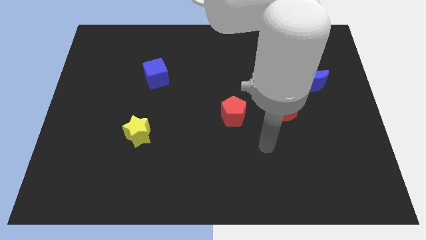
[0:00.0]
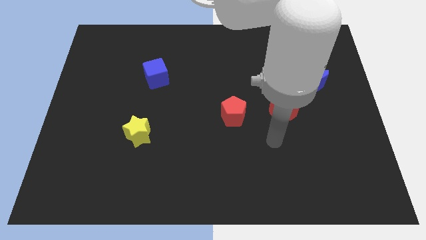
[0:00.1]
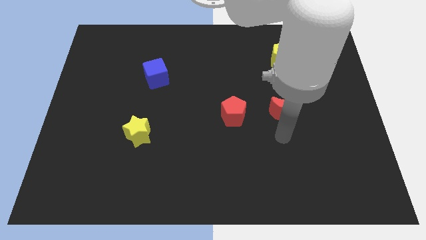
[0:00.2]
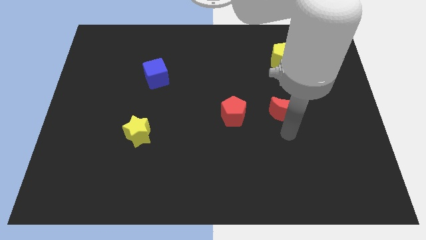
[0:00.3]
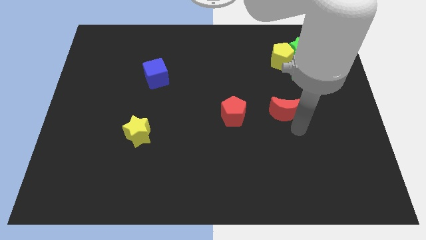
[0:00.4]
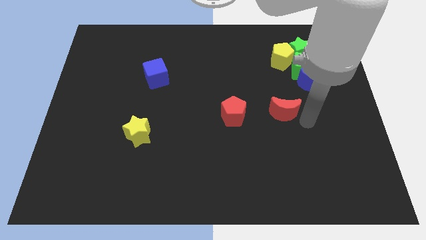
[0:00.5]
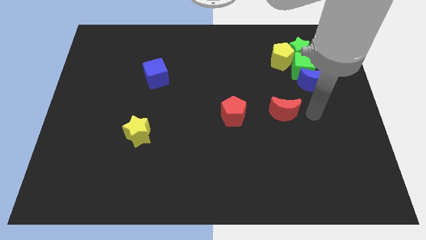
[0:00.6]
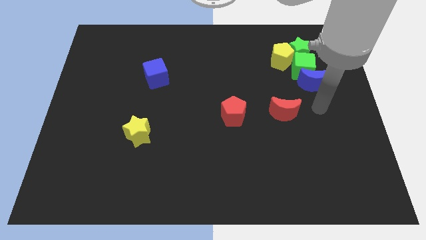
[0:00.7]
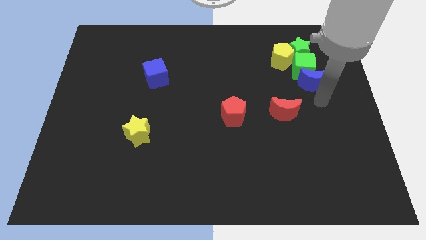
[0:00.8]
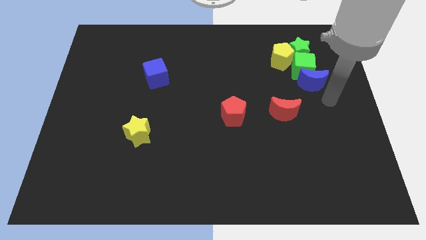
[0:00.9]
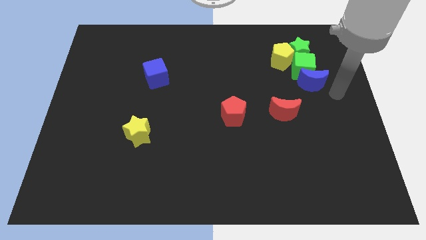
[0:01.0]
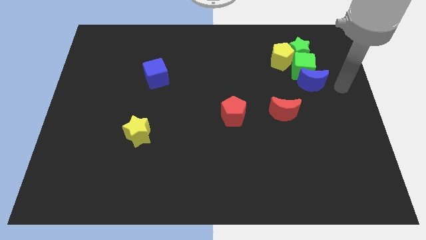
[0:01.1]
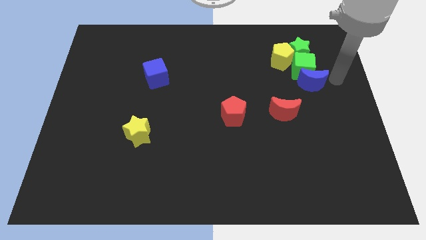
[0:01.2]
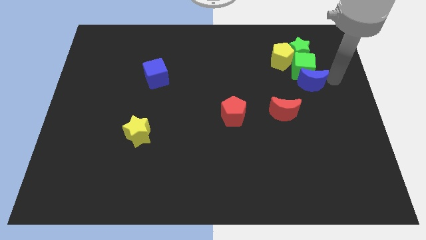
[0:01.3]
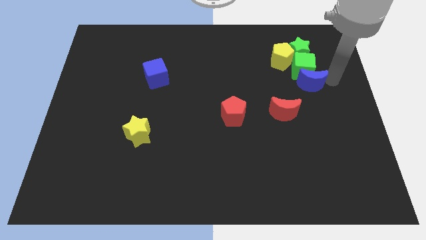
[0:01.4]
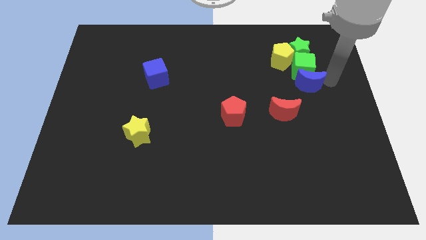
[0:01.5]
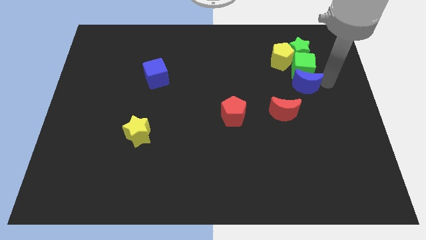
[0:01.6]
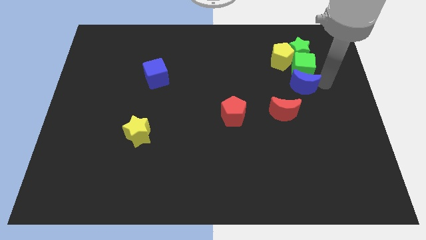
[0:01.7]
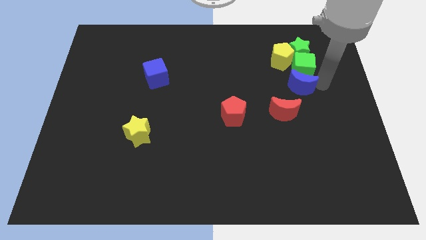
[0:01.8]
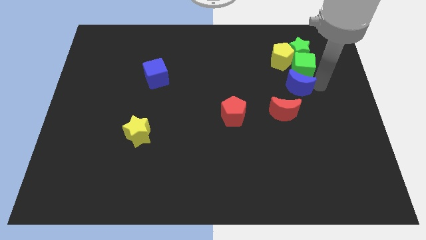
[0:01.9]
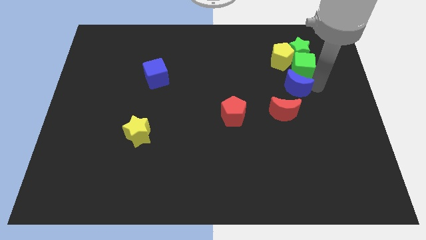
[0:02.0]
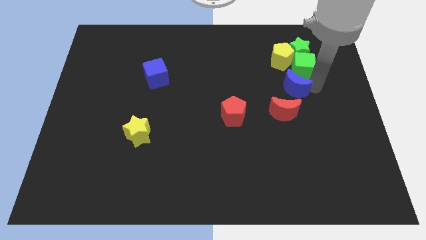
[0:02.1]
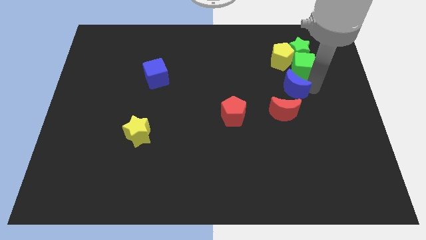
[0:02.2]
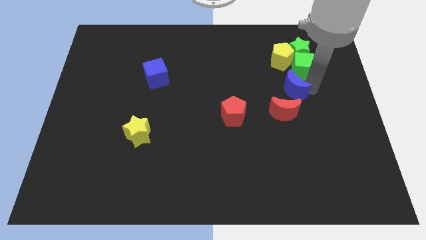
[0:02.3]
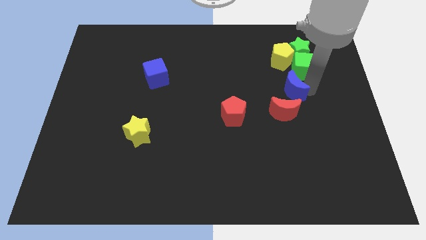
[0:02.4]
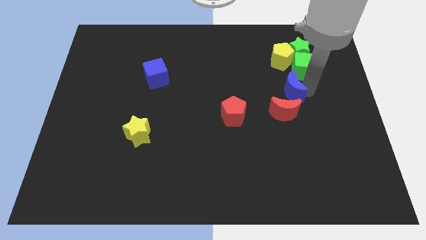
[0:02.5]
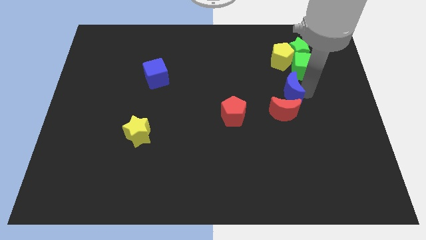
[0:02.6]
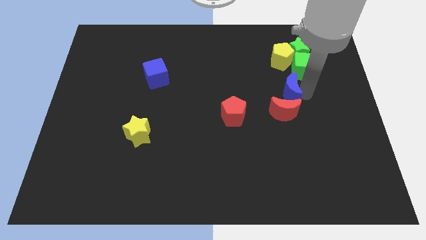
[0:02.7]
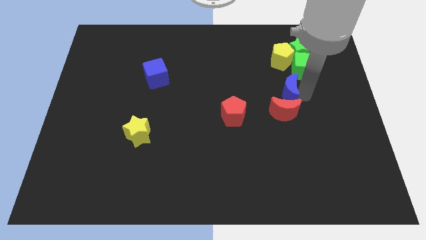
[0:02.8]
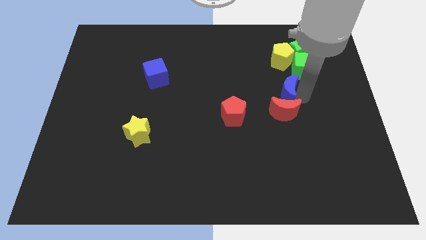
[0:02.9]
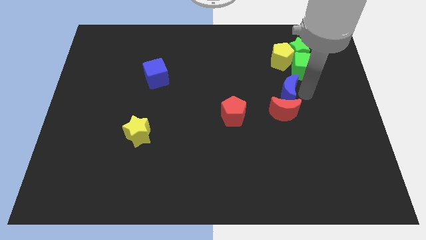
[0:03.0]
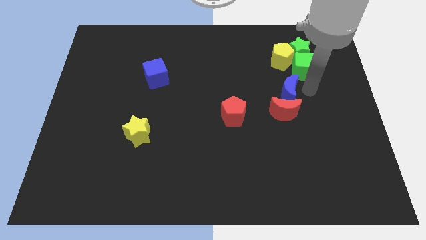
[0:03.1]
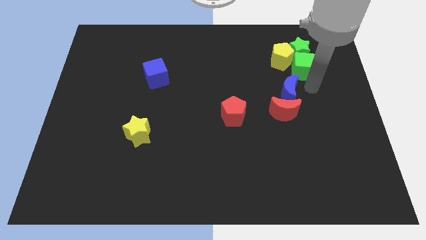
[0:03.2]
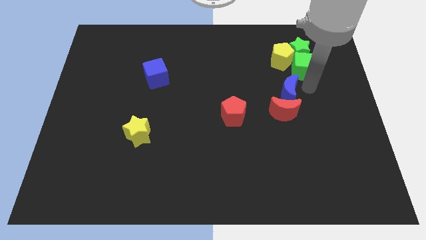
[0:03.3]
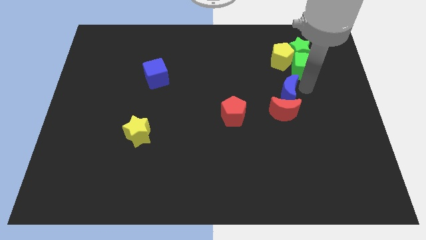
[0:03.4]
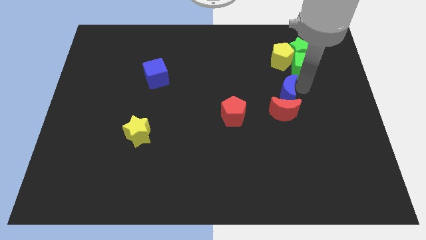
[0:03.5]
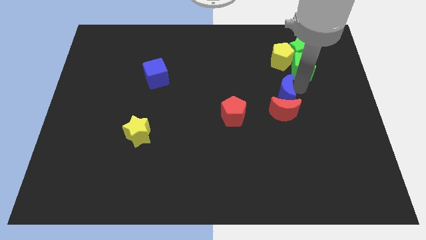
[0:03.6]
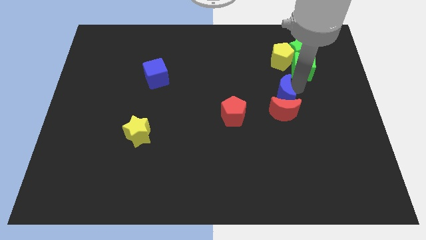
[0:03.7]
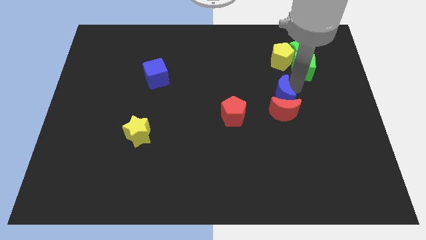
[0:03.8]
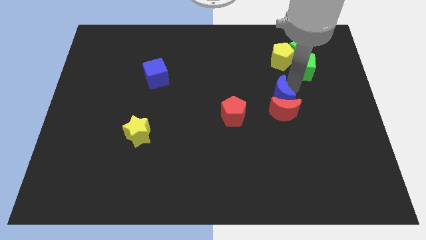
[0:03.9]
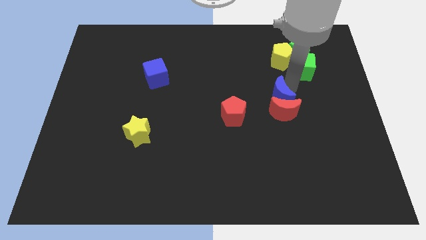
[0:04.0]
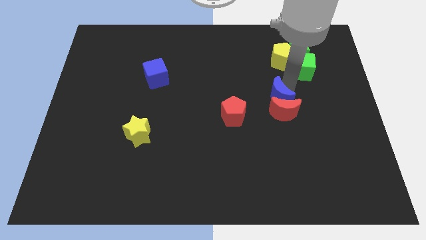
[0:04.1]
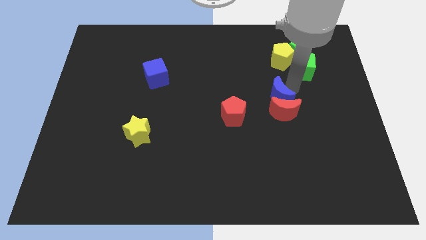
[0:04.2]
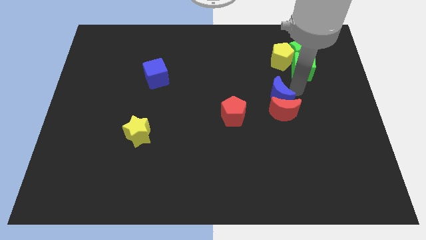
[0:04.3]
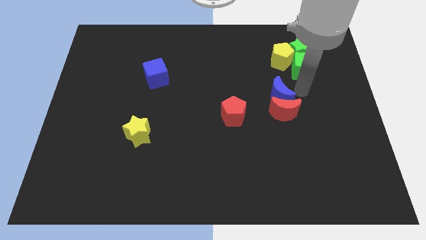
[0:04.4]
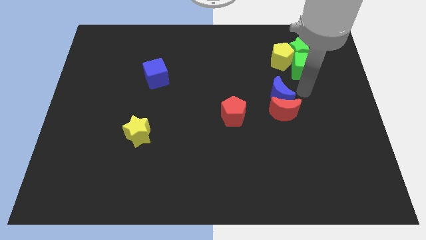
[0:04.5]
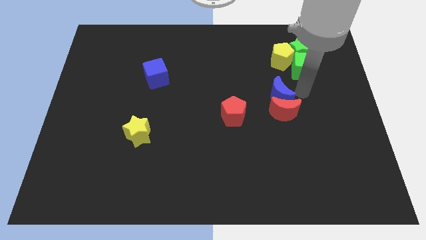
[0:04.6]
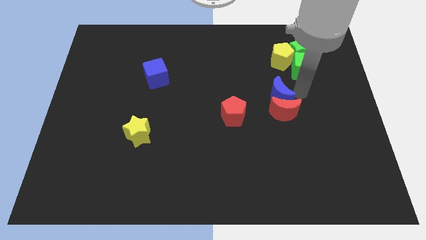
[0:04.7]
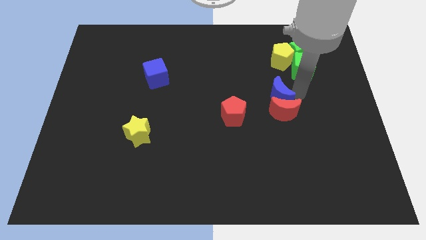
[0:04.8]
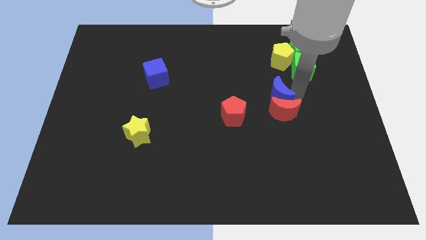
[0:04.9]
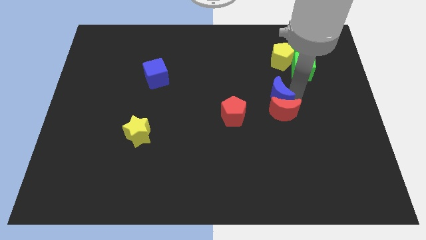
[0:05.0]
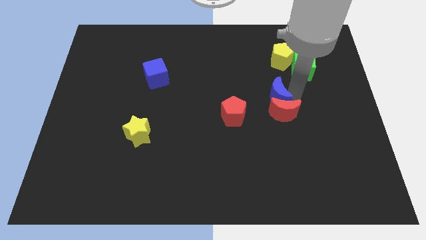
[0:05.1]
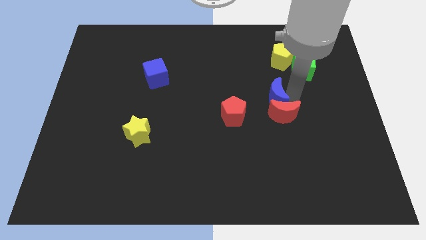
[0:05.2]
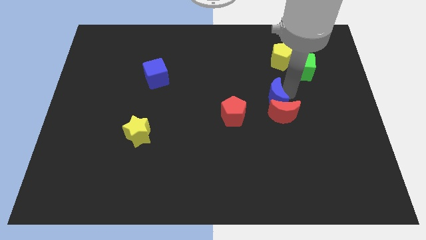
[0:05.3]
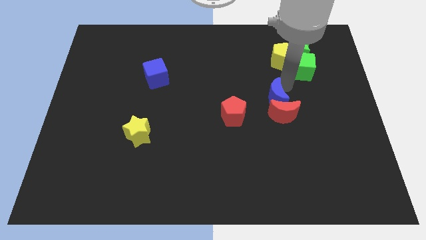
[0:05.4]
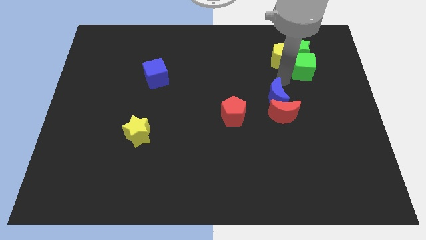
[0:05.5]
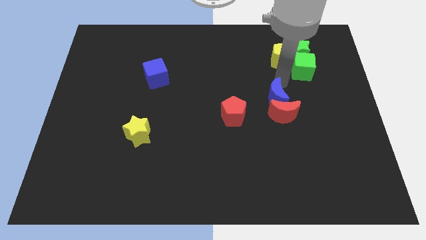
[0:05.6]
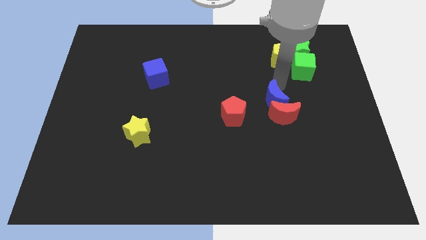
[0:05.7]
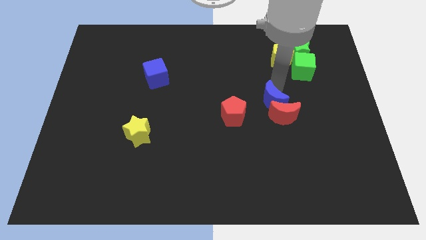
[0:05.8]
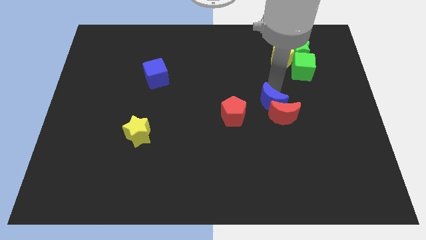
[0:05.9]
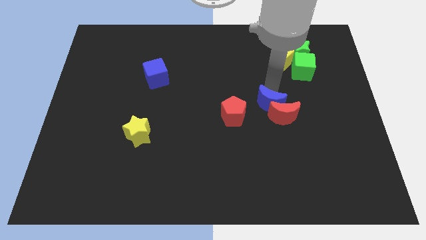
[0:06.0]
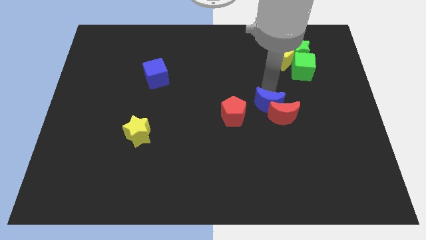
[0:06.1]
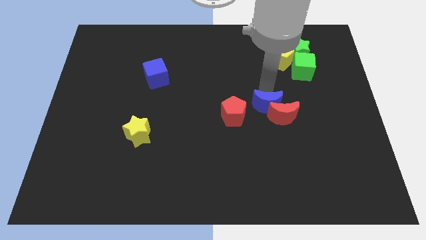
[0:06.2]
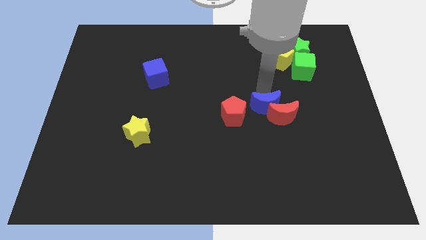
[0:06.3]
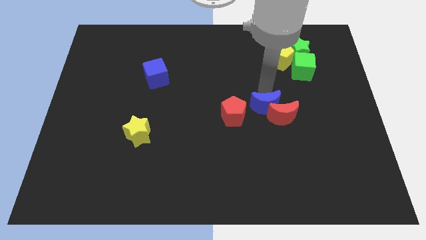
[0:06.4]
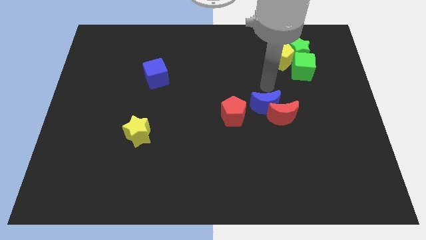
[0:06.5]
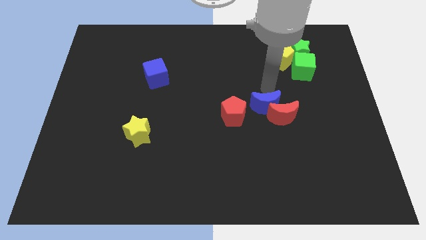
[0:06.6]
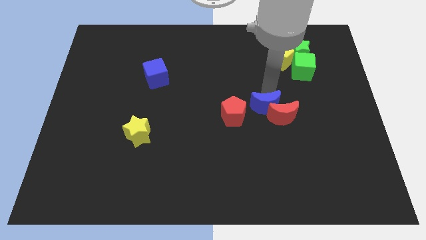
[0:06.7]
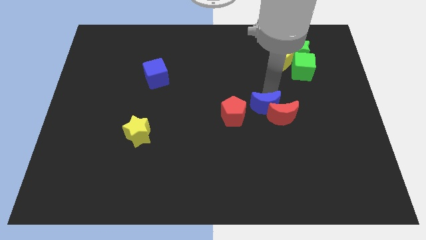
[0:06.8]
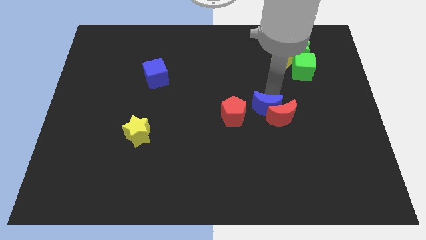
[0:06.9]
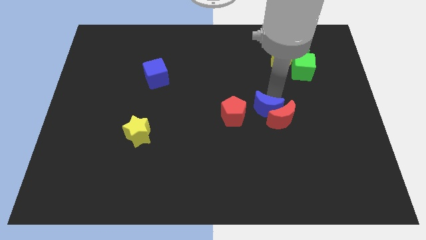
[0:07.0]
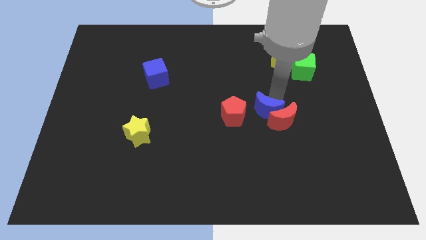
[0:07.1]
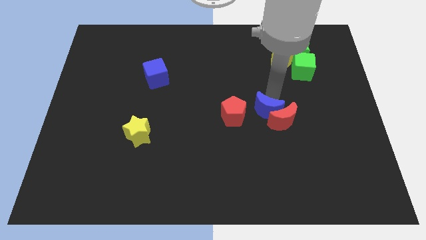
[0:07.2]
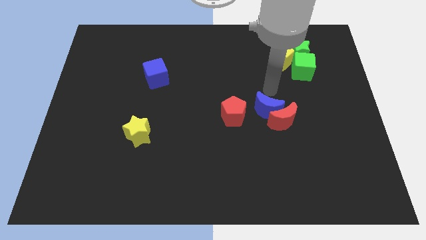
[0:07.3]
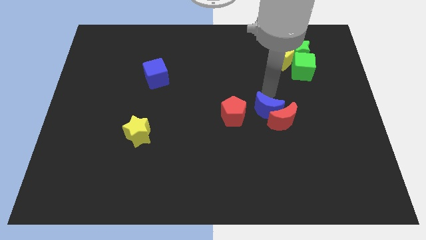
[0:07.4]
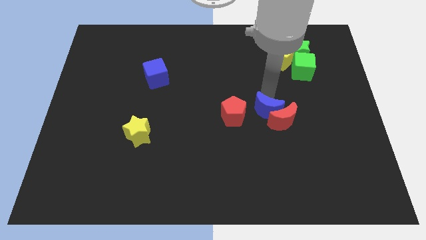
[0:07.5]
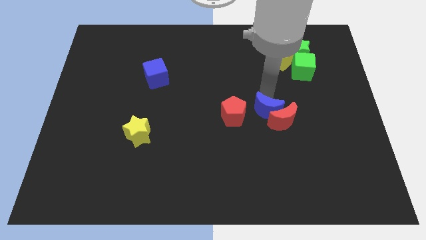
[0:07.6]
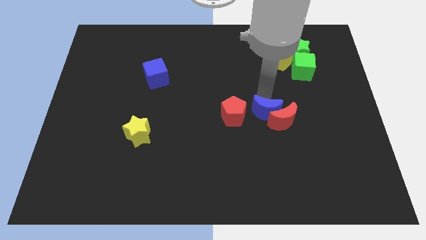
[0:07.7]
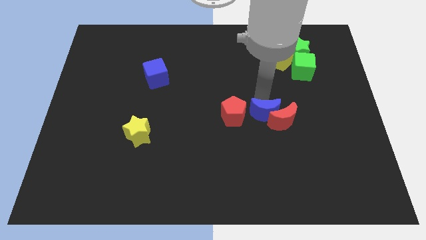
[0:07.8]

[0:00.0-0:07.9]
slide the blue moon to the bottom left of the red moon
